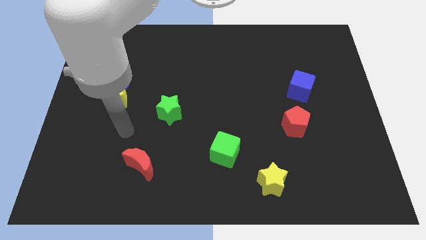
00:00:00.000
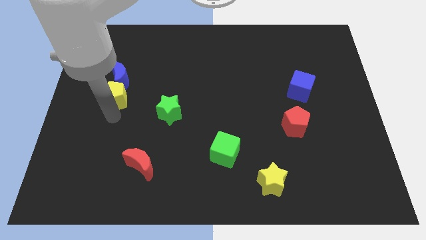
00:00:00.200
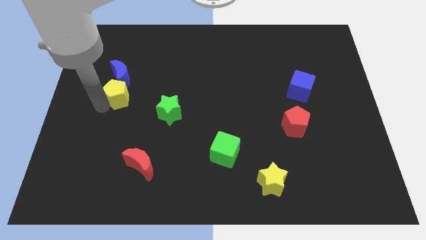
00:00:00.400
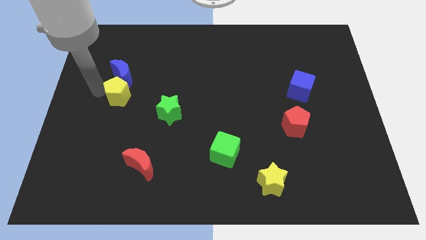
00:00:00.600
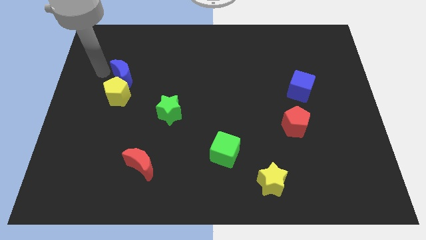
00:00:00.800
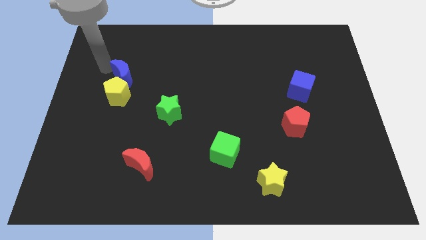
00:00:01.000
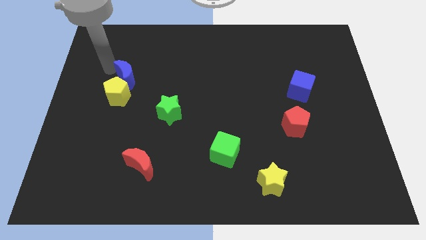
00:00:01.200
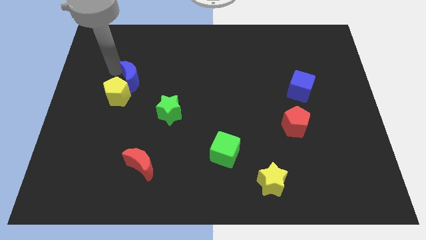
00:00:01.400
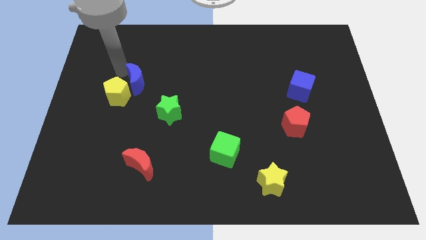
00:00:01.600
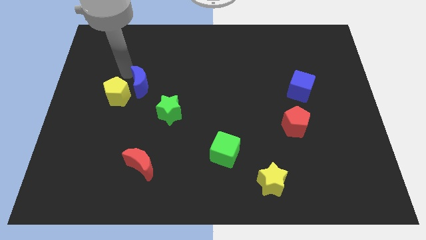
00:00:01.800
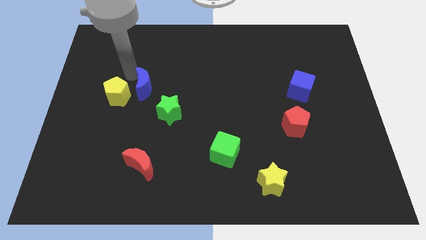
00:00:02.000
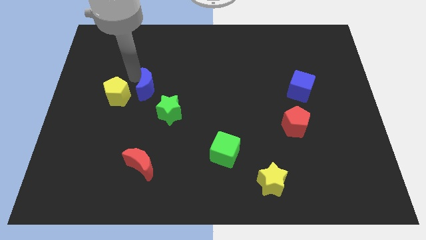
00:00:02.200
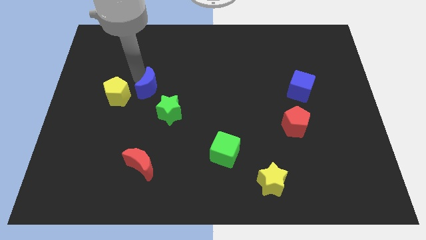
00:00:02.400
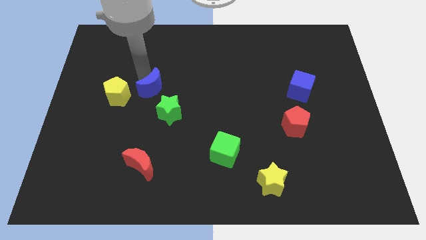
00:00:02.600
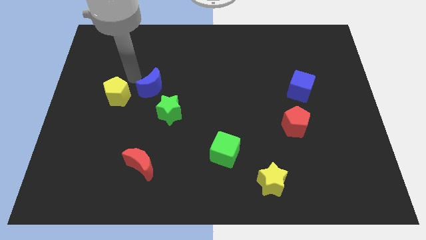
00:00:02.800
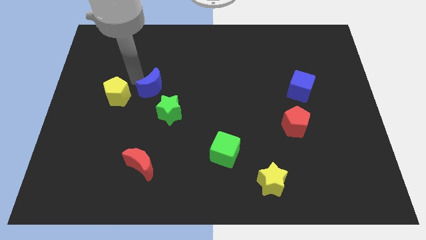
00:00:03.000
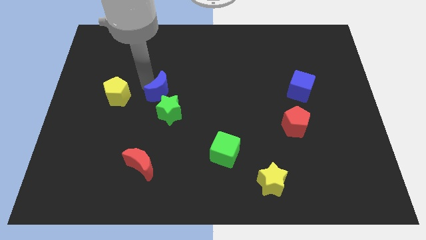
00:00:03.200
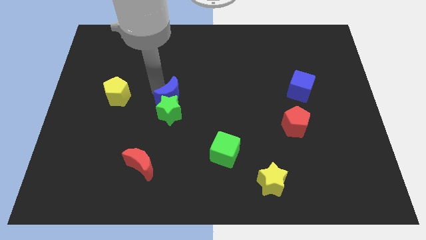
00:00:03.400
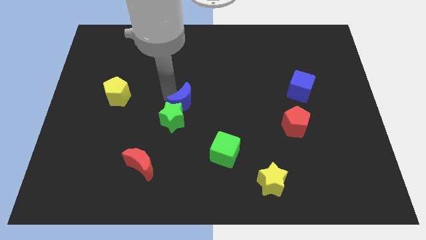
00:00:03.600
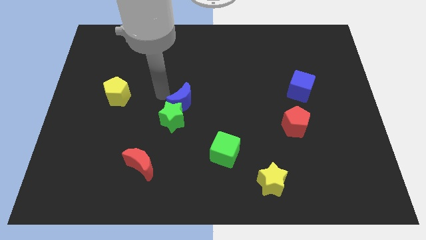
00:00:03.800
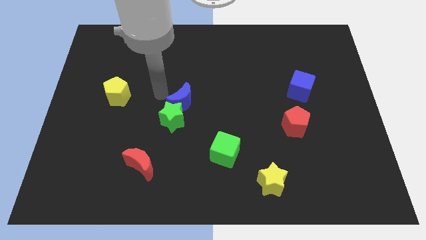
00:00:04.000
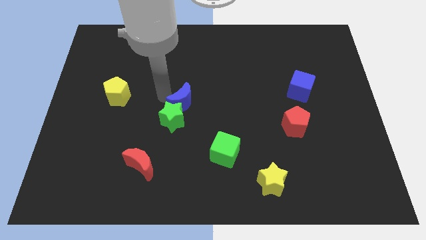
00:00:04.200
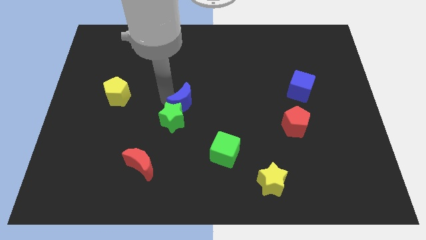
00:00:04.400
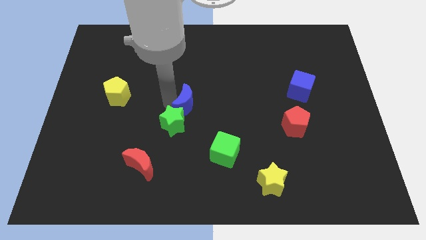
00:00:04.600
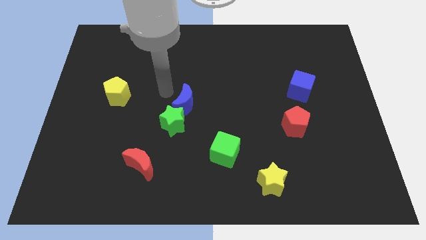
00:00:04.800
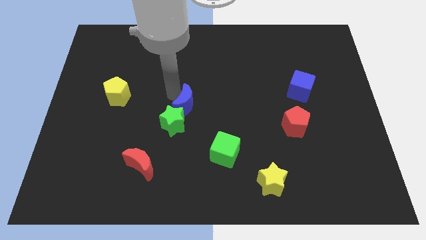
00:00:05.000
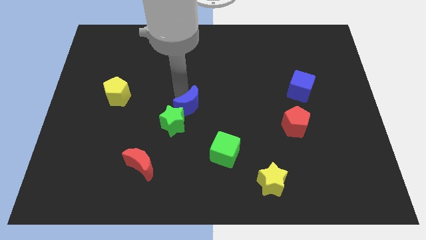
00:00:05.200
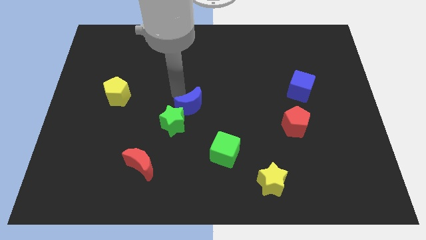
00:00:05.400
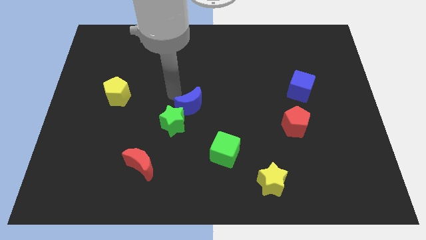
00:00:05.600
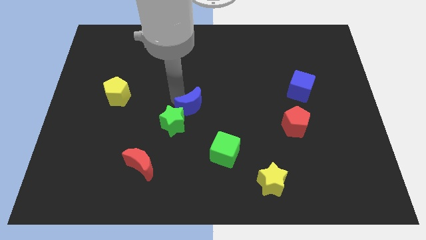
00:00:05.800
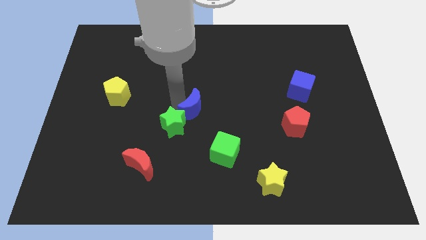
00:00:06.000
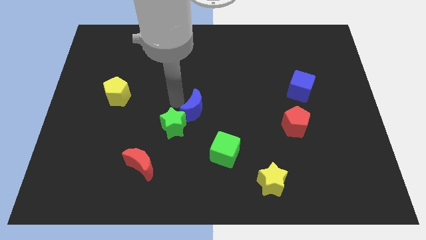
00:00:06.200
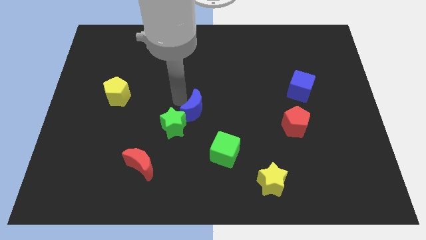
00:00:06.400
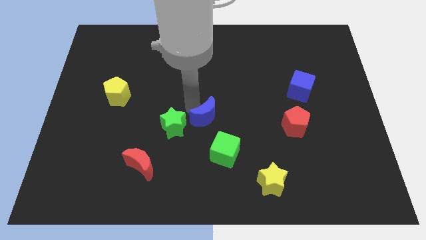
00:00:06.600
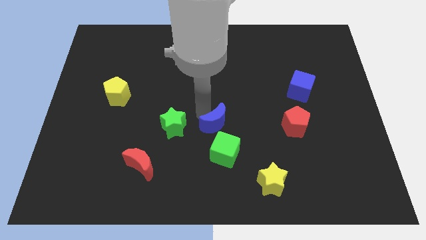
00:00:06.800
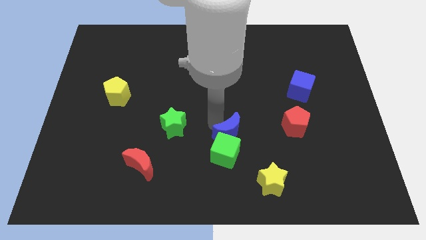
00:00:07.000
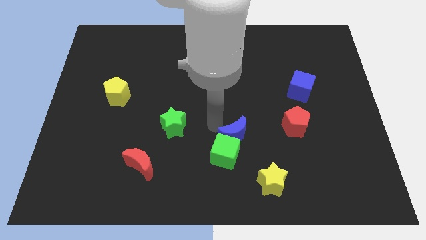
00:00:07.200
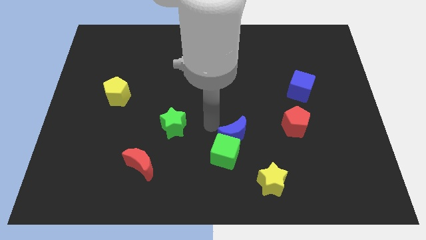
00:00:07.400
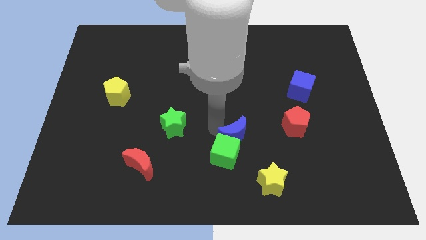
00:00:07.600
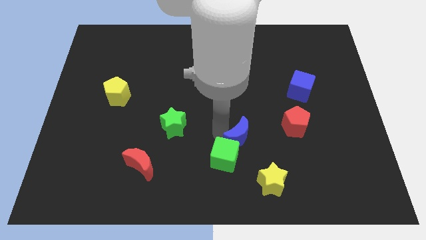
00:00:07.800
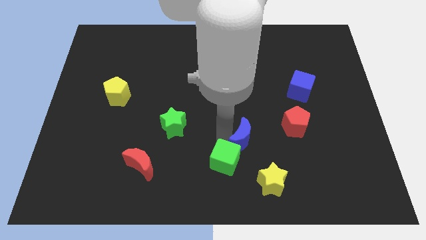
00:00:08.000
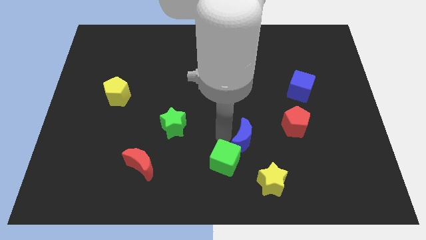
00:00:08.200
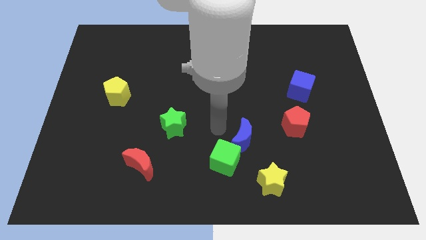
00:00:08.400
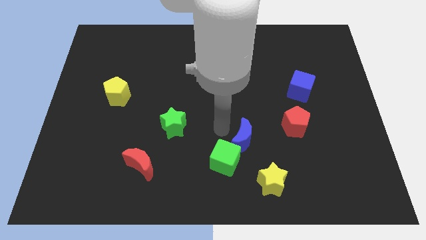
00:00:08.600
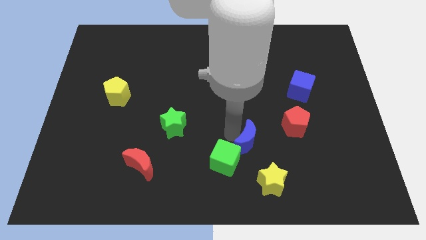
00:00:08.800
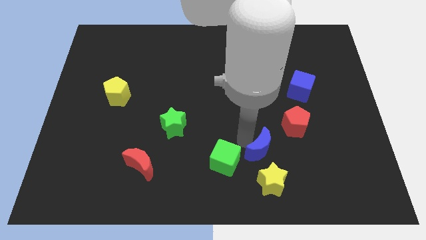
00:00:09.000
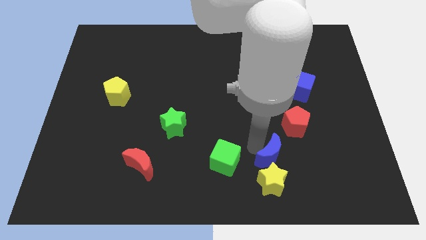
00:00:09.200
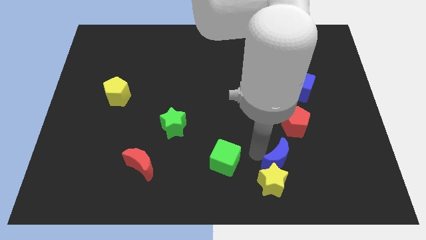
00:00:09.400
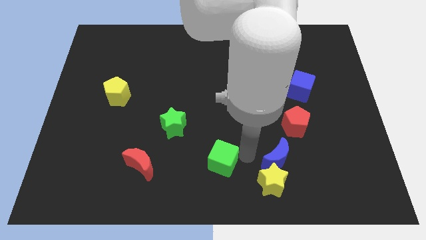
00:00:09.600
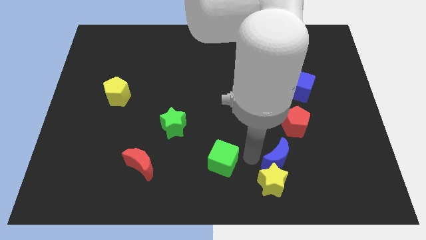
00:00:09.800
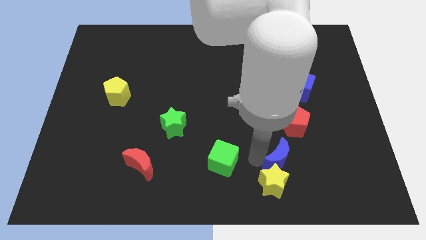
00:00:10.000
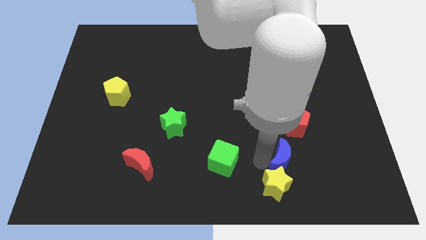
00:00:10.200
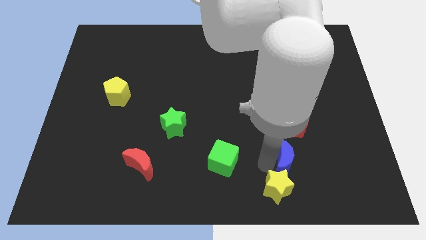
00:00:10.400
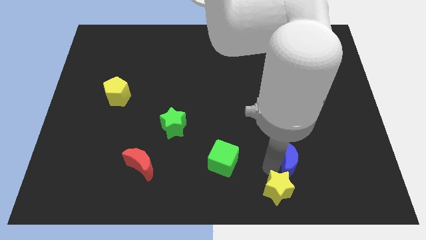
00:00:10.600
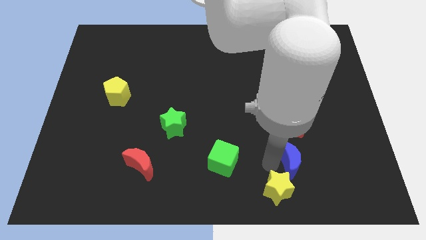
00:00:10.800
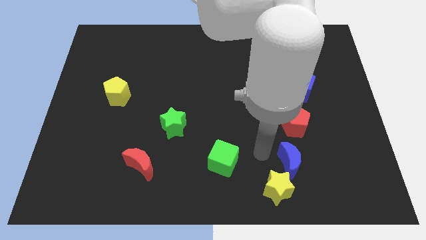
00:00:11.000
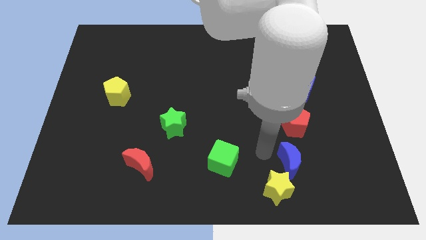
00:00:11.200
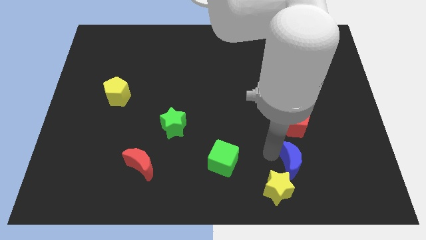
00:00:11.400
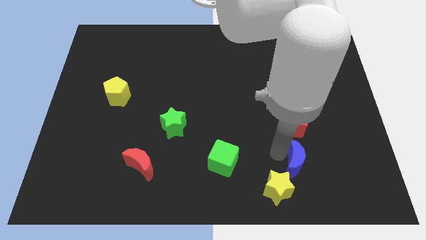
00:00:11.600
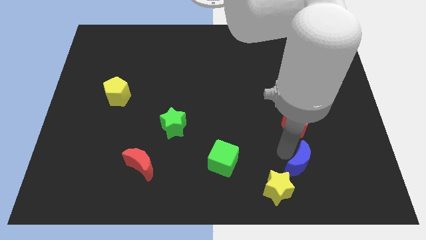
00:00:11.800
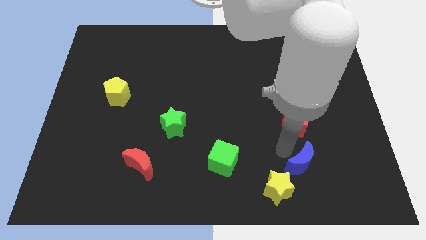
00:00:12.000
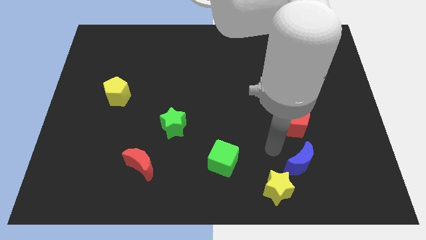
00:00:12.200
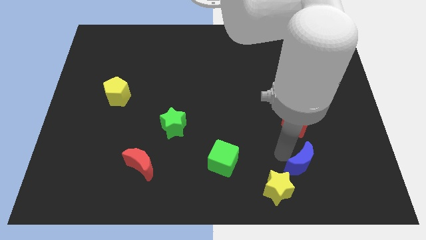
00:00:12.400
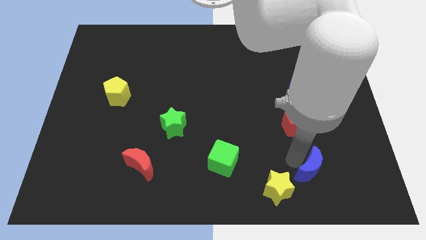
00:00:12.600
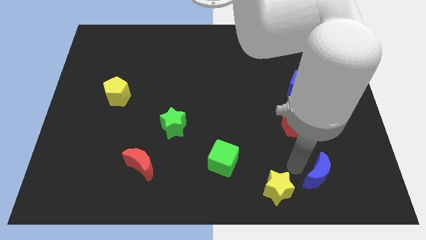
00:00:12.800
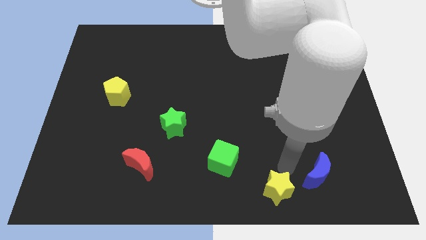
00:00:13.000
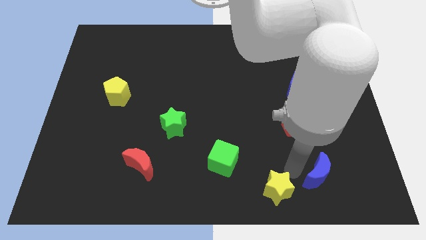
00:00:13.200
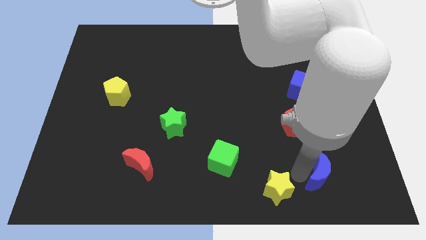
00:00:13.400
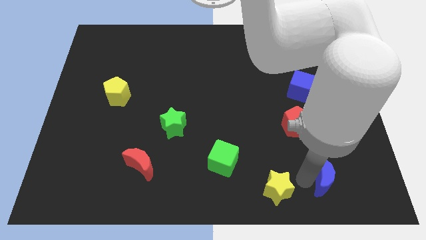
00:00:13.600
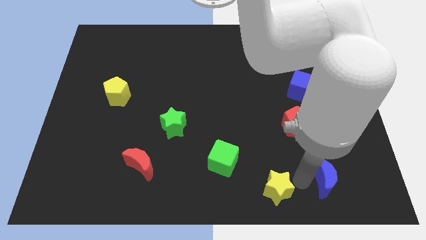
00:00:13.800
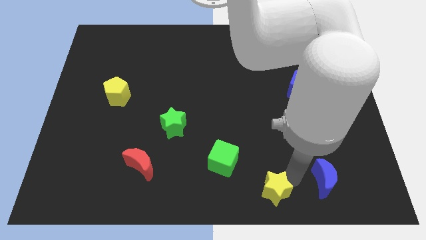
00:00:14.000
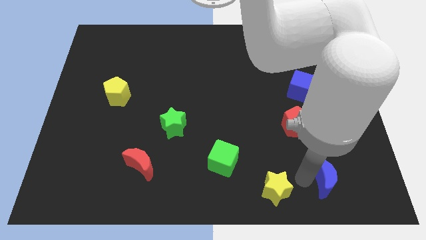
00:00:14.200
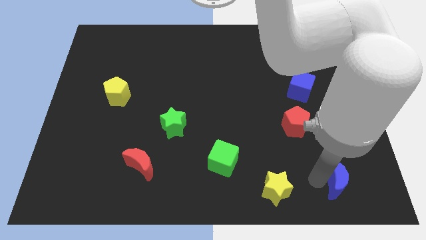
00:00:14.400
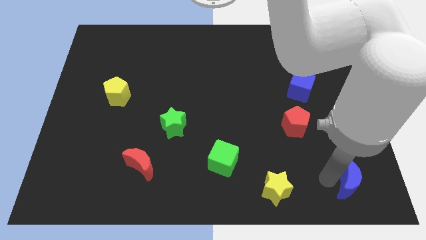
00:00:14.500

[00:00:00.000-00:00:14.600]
put the blue moon to the bottom right corner
